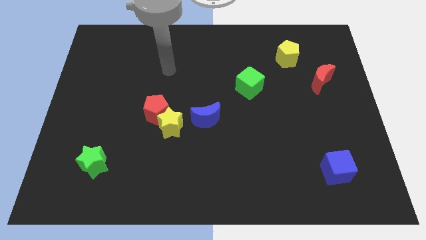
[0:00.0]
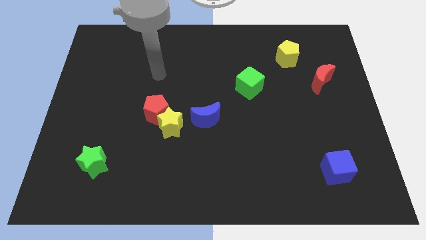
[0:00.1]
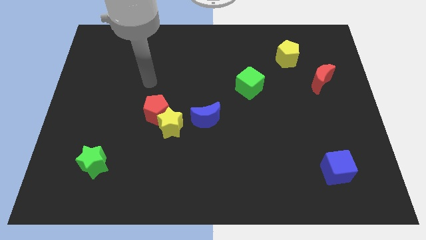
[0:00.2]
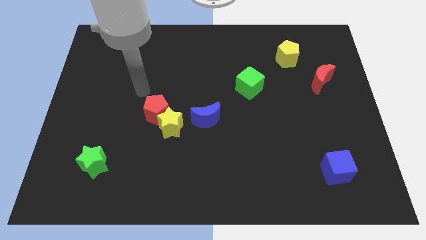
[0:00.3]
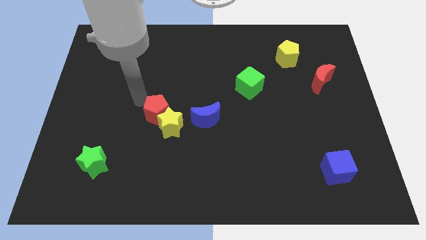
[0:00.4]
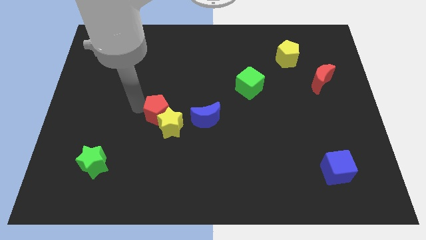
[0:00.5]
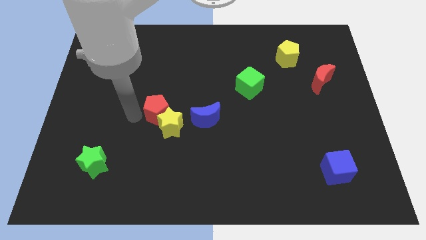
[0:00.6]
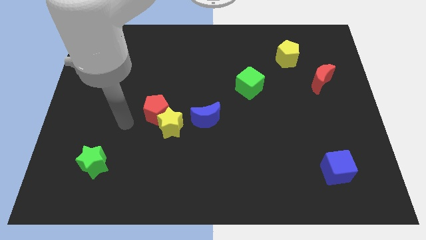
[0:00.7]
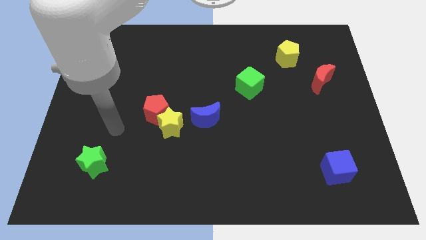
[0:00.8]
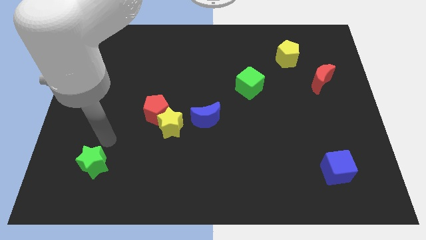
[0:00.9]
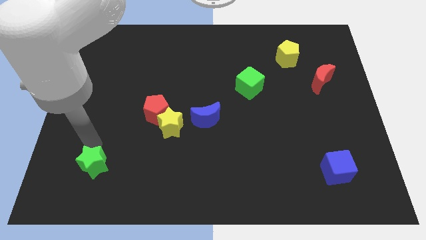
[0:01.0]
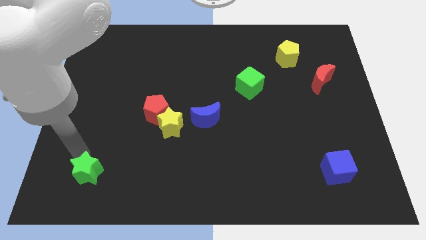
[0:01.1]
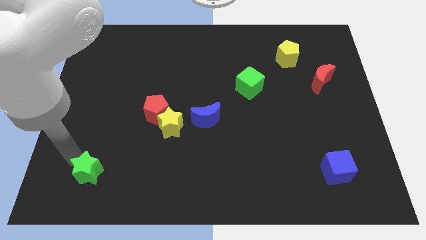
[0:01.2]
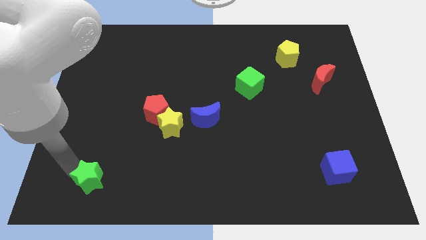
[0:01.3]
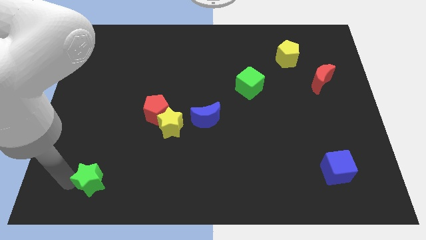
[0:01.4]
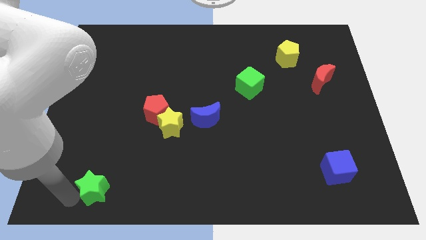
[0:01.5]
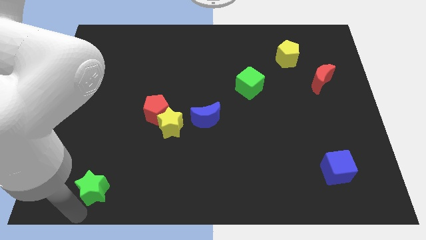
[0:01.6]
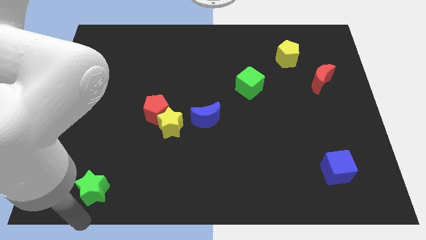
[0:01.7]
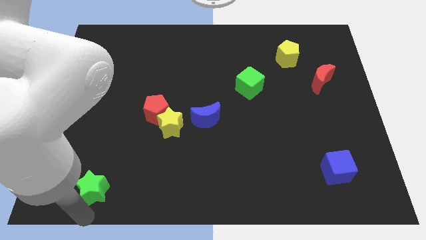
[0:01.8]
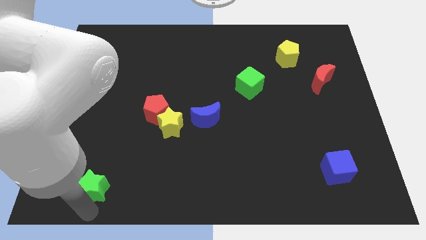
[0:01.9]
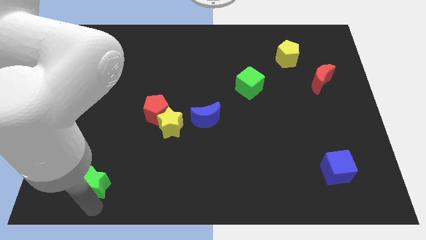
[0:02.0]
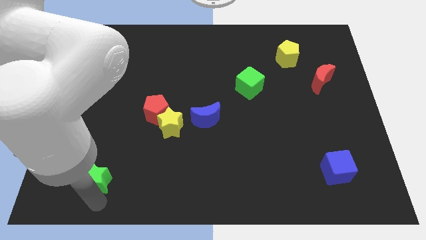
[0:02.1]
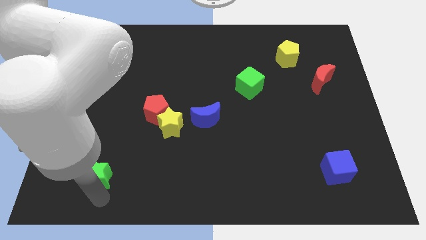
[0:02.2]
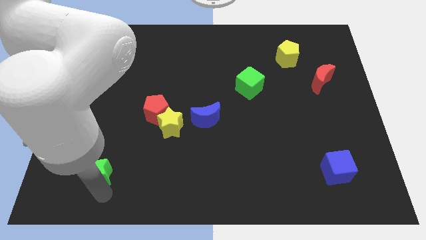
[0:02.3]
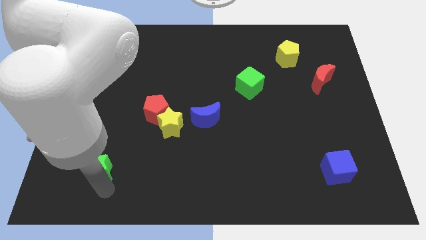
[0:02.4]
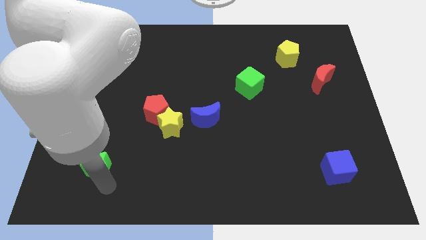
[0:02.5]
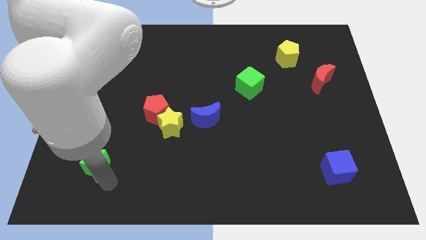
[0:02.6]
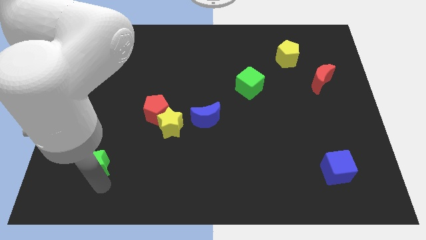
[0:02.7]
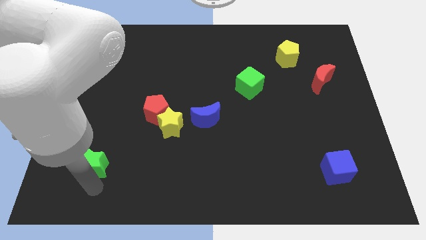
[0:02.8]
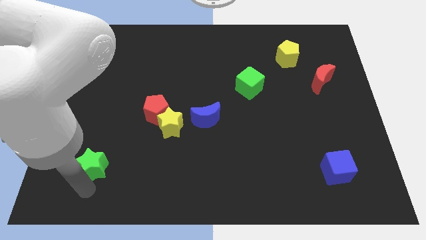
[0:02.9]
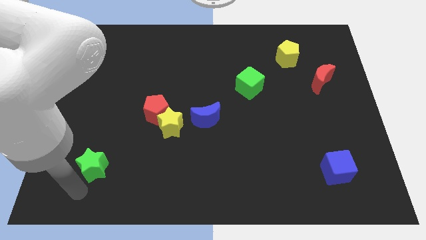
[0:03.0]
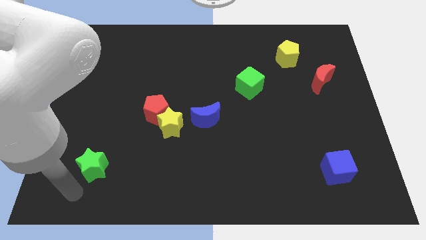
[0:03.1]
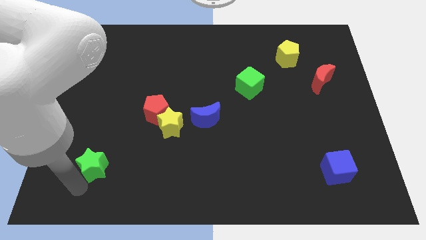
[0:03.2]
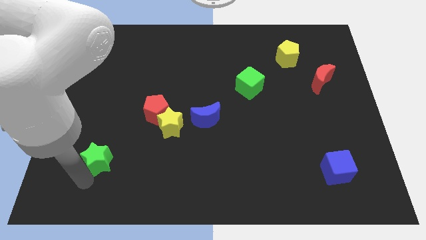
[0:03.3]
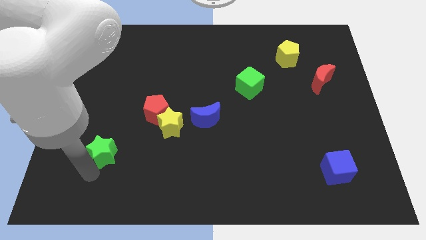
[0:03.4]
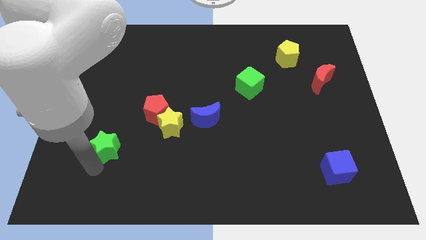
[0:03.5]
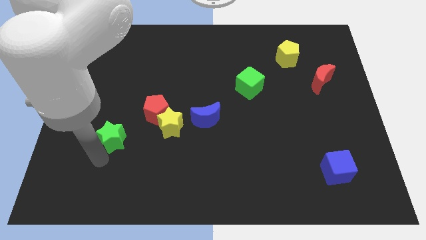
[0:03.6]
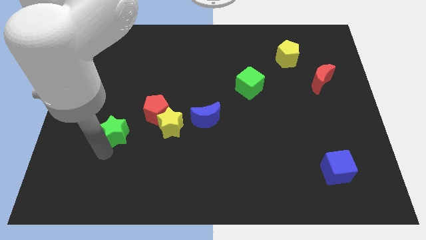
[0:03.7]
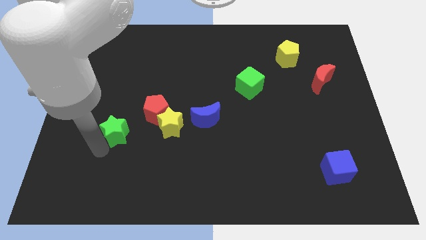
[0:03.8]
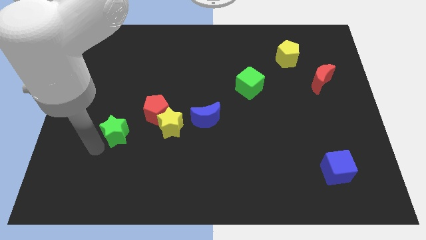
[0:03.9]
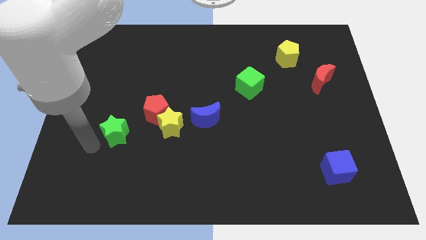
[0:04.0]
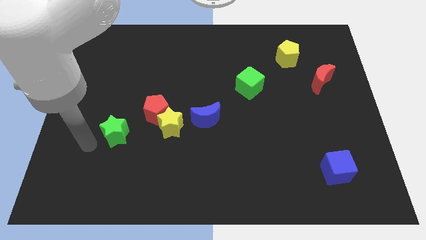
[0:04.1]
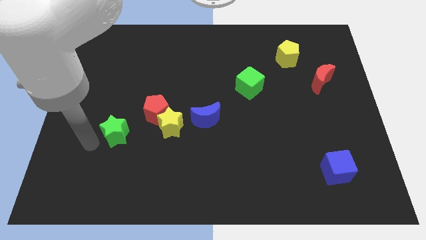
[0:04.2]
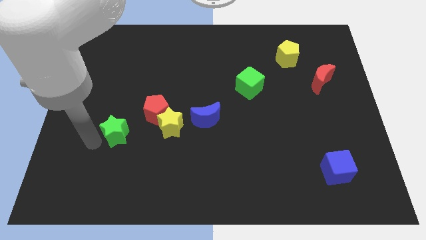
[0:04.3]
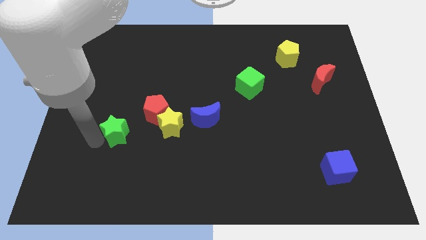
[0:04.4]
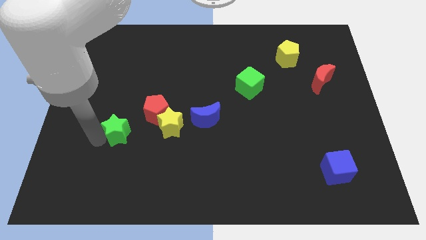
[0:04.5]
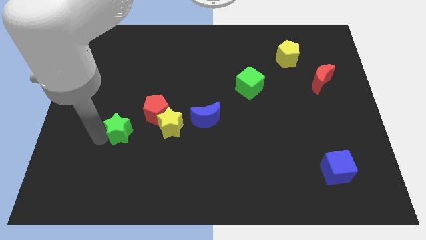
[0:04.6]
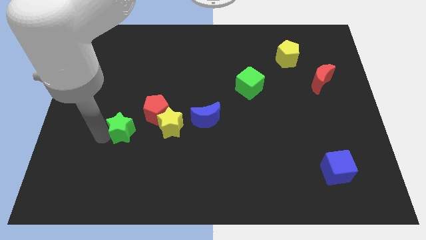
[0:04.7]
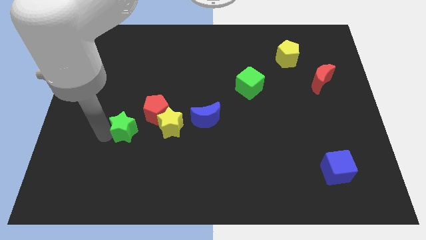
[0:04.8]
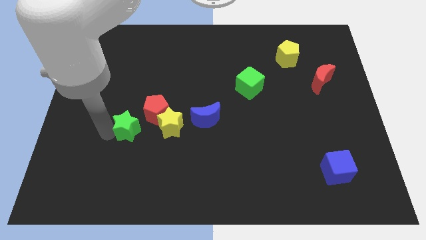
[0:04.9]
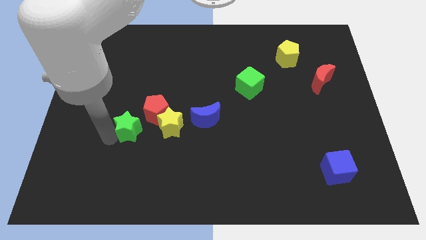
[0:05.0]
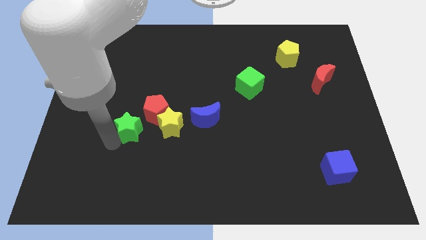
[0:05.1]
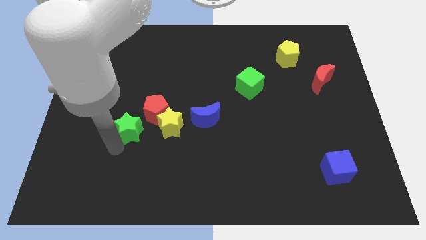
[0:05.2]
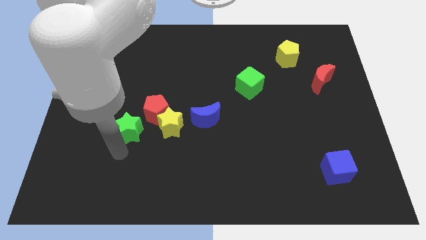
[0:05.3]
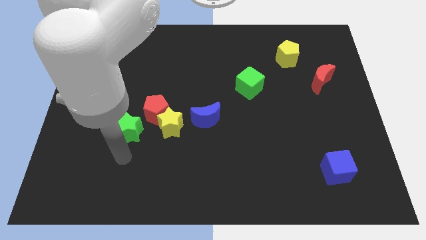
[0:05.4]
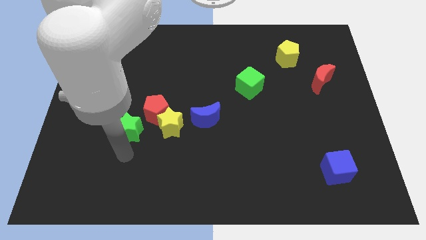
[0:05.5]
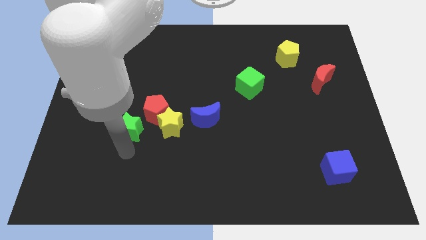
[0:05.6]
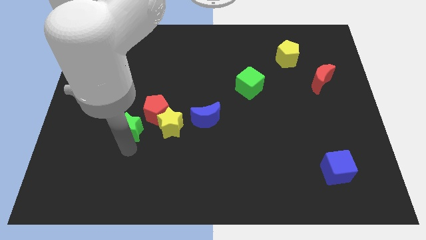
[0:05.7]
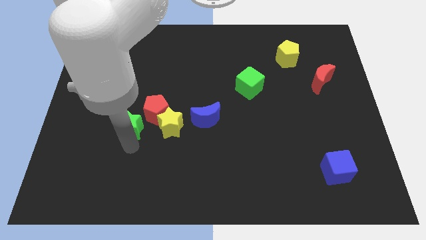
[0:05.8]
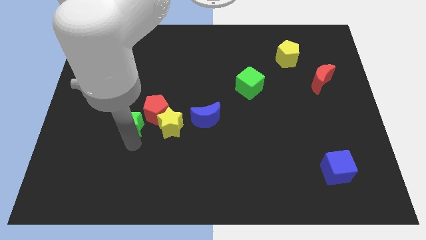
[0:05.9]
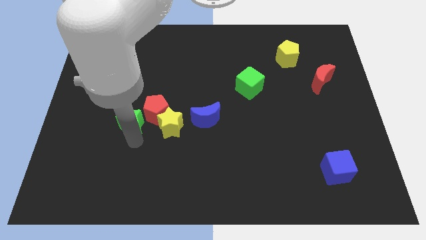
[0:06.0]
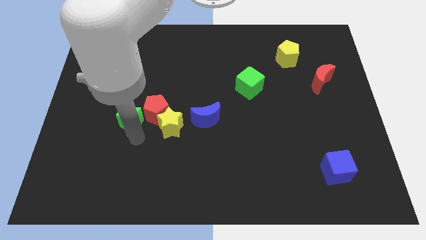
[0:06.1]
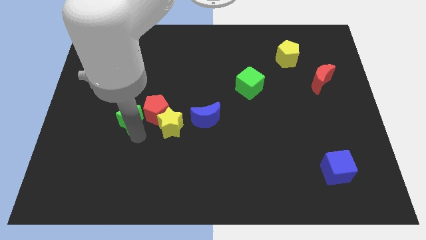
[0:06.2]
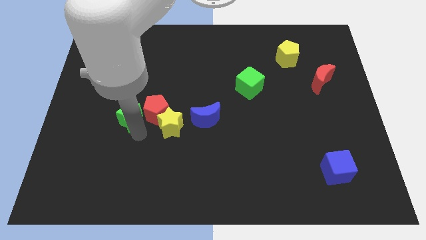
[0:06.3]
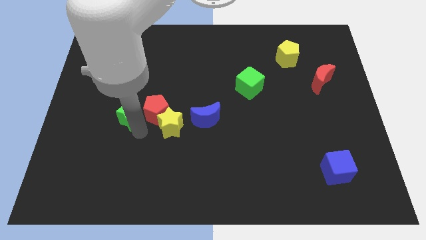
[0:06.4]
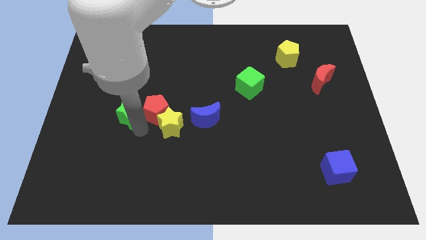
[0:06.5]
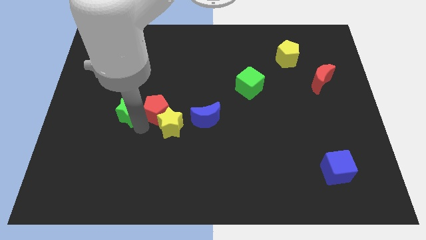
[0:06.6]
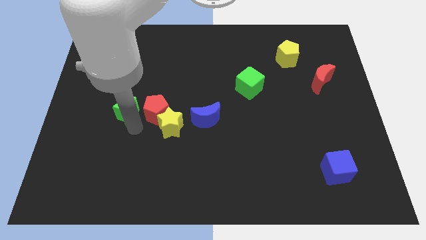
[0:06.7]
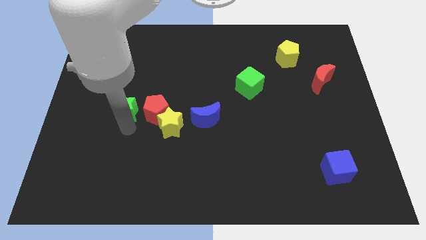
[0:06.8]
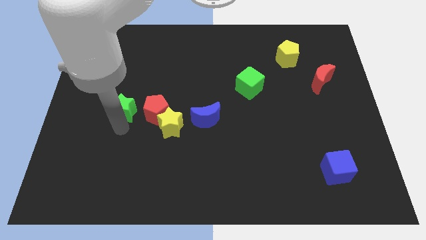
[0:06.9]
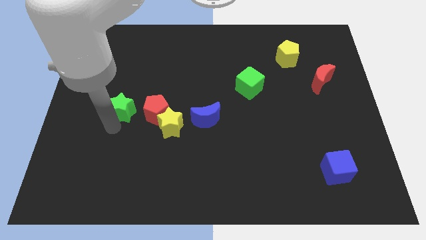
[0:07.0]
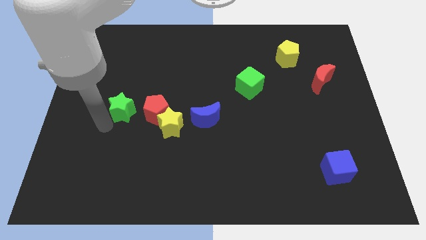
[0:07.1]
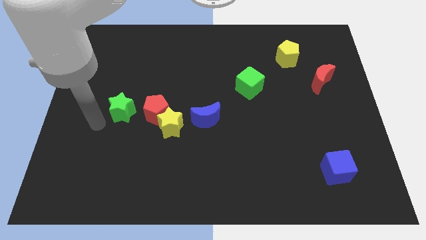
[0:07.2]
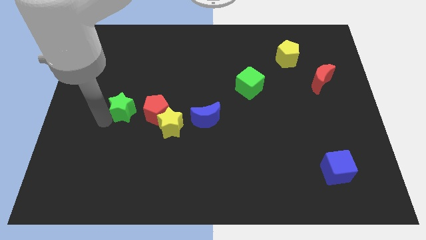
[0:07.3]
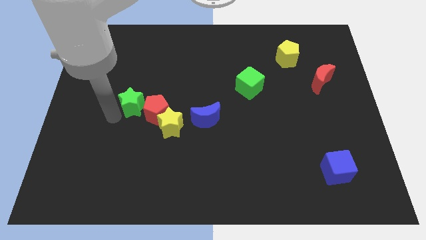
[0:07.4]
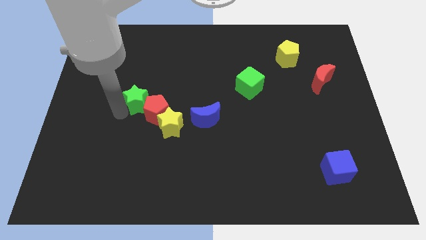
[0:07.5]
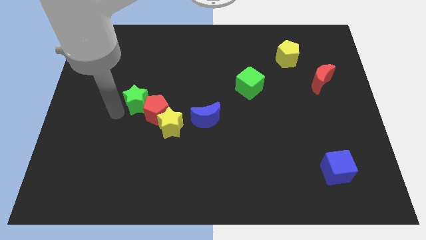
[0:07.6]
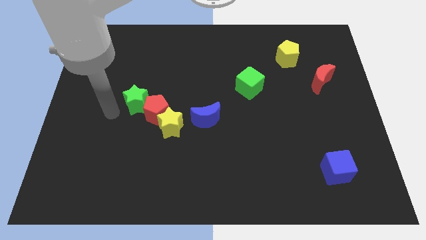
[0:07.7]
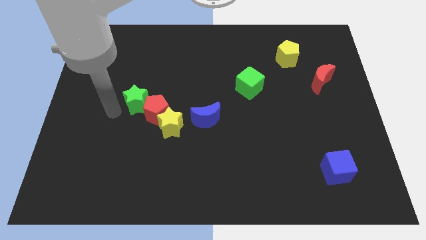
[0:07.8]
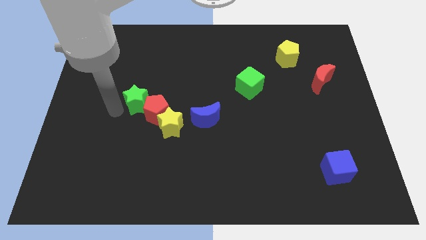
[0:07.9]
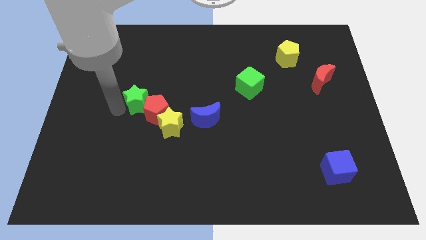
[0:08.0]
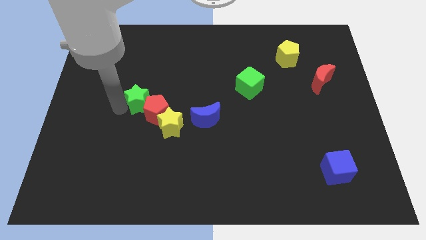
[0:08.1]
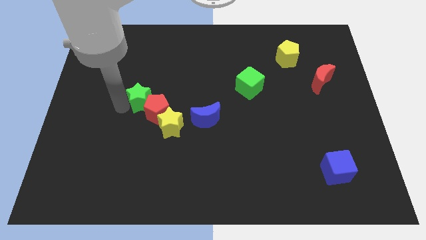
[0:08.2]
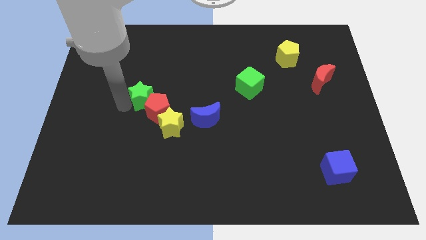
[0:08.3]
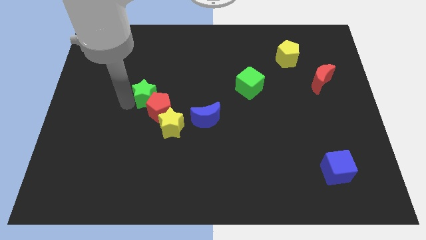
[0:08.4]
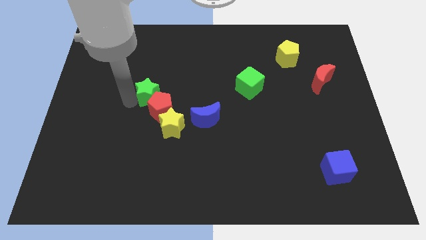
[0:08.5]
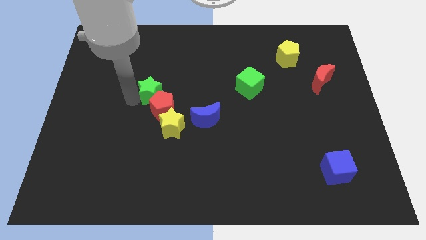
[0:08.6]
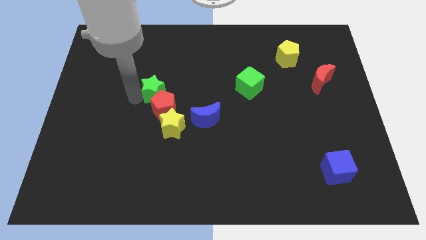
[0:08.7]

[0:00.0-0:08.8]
slide the green star diagonally upwards and right
